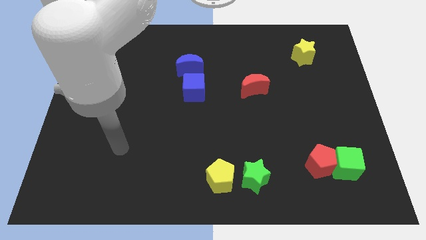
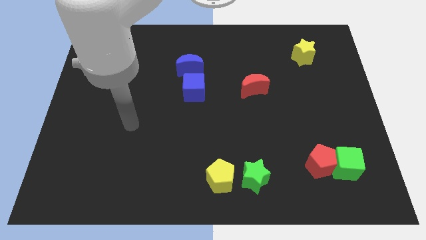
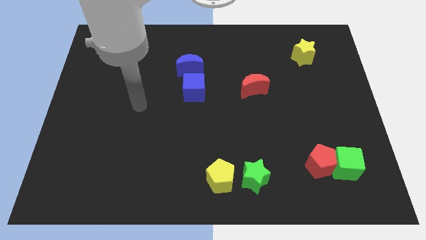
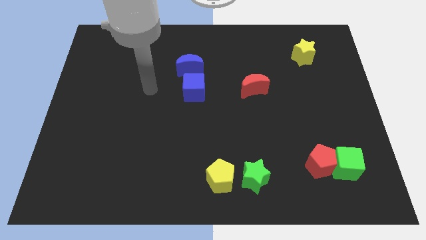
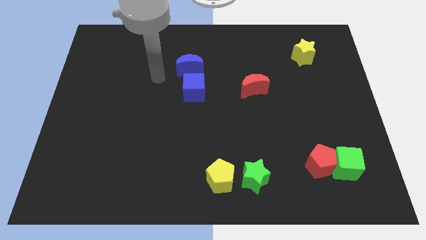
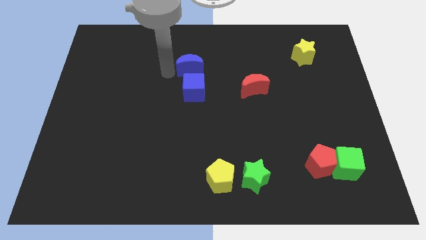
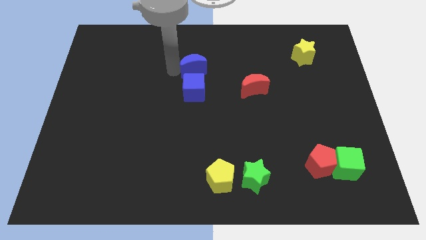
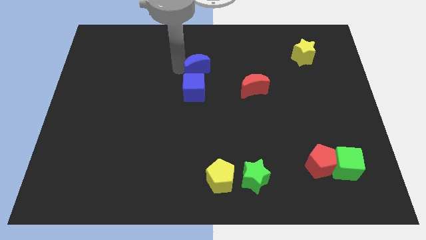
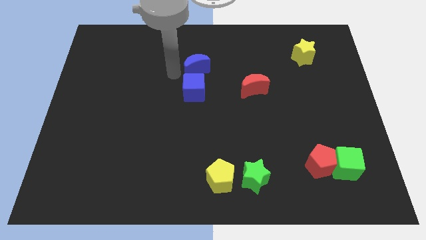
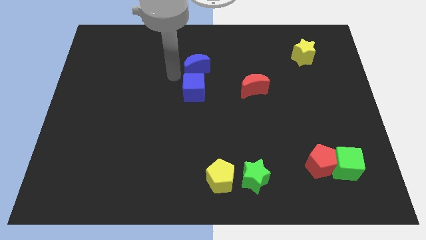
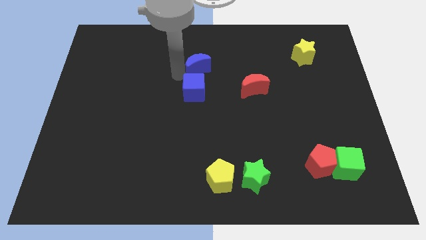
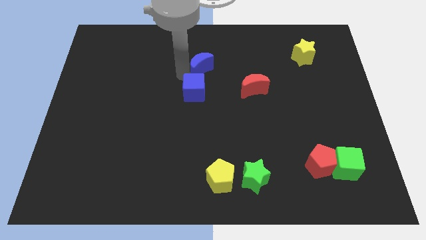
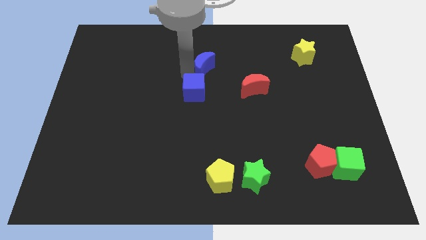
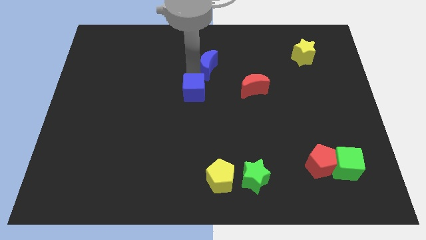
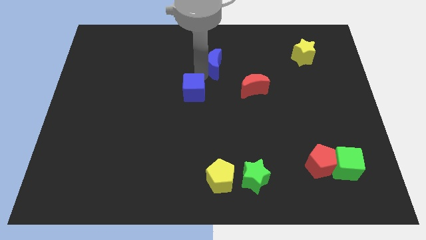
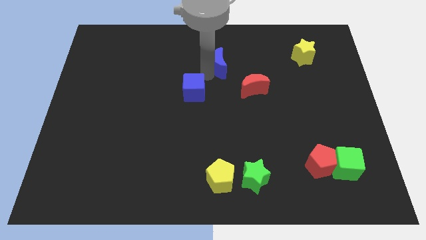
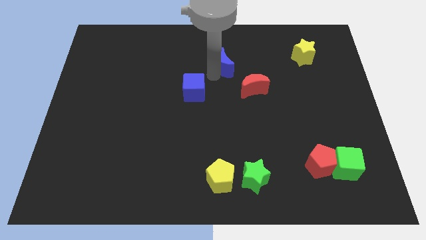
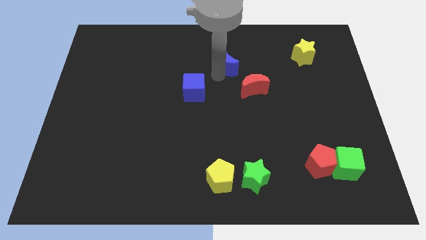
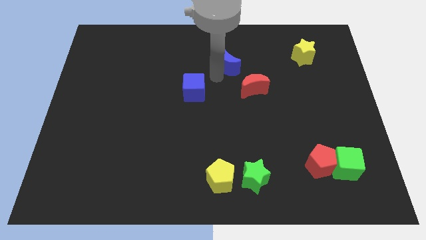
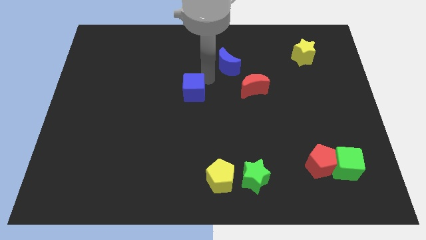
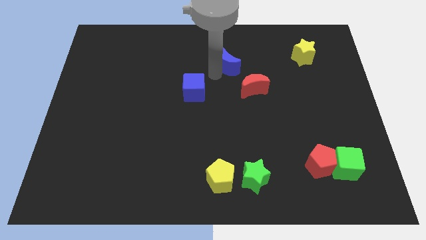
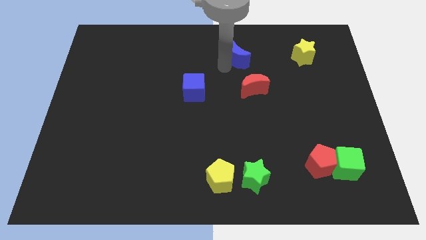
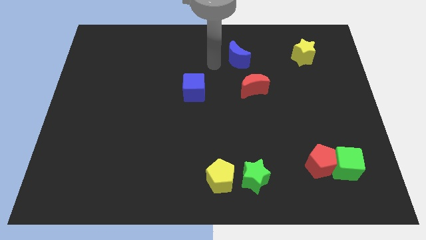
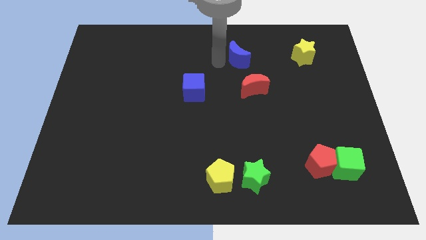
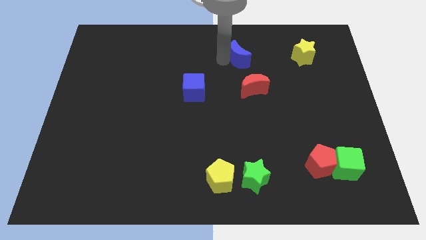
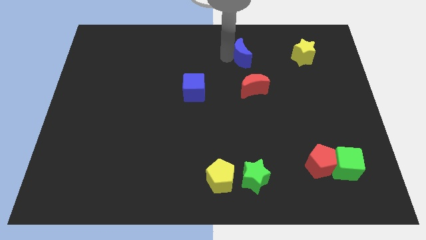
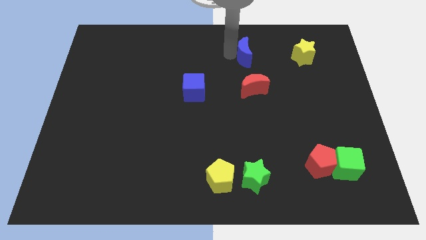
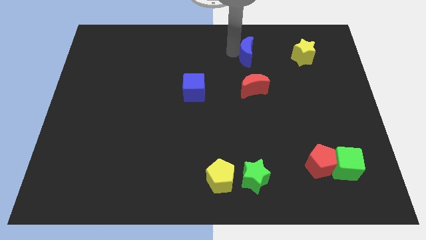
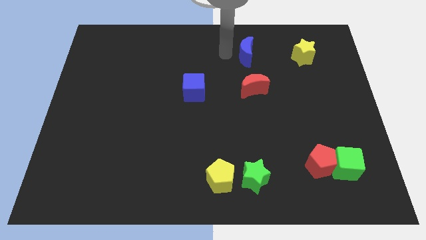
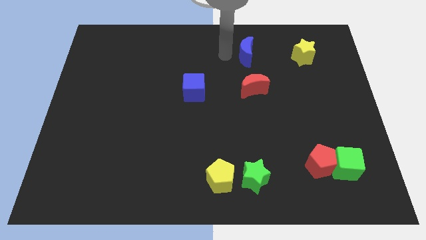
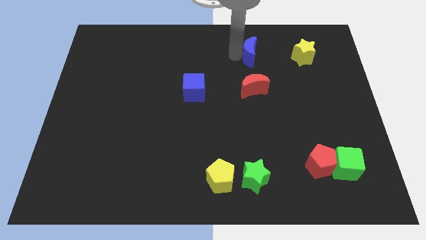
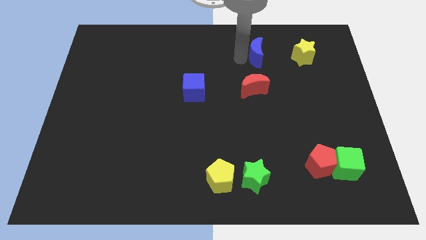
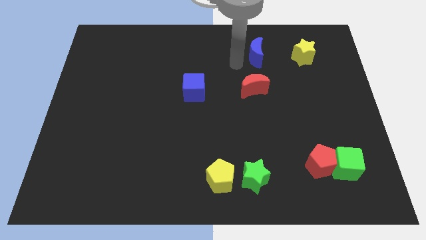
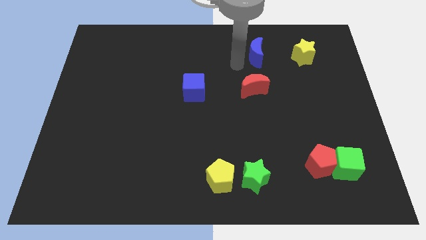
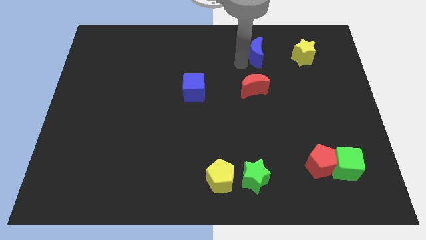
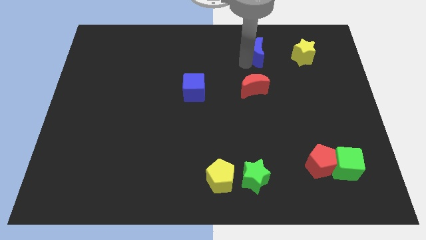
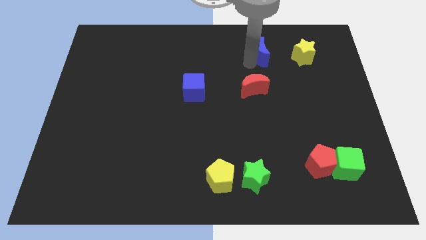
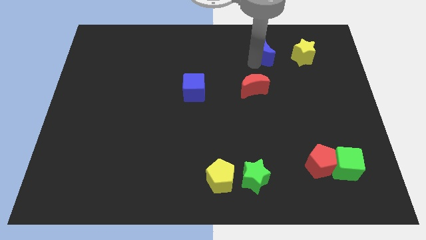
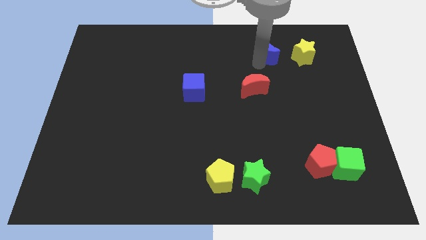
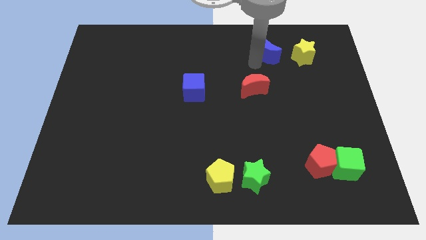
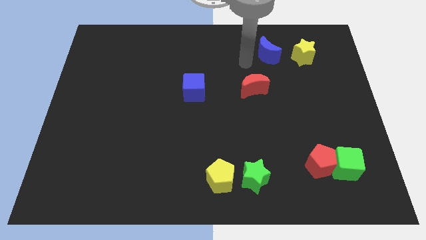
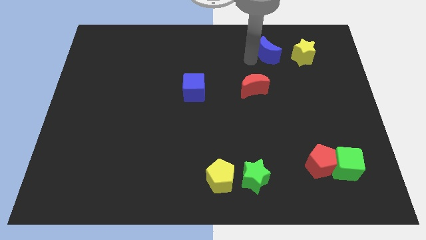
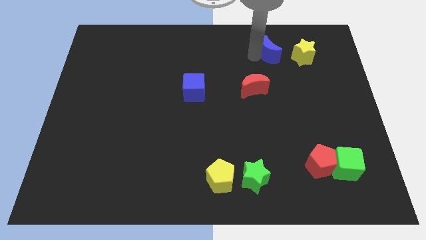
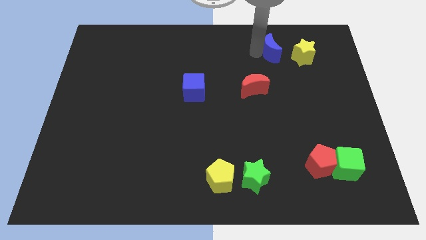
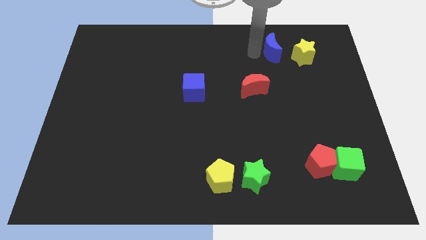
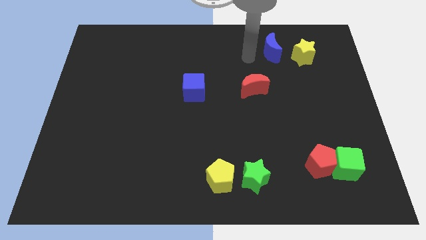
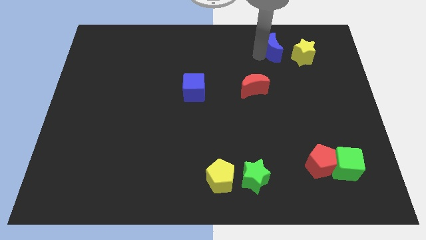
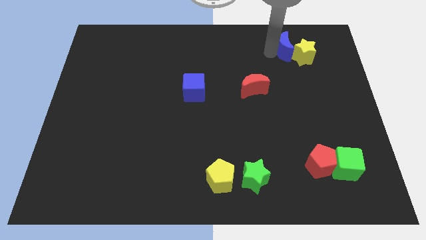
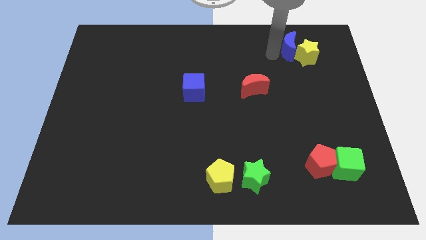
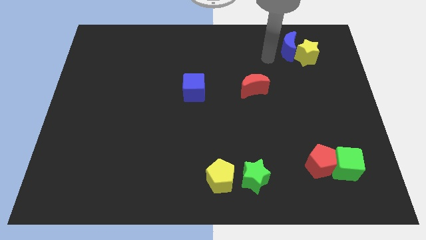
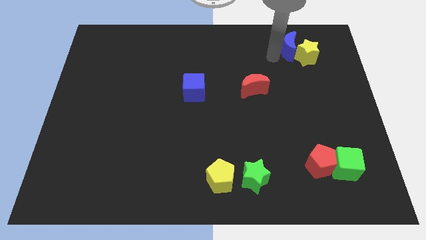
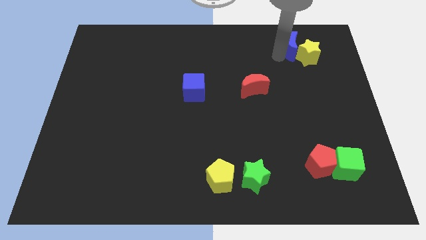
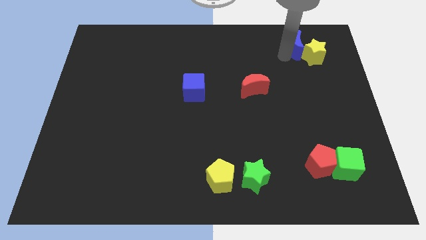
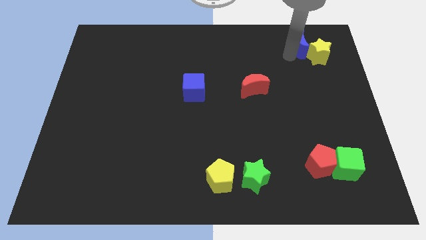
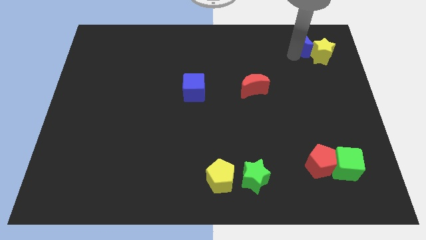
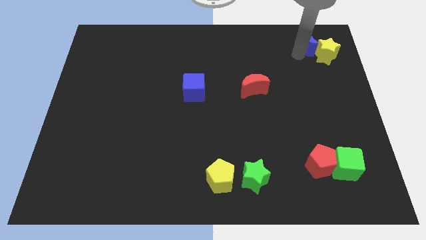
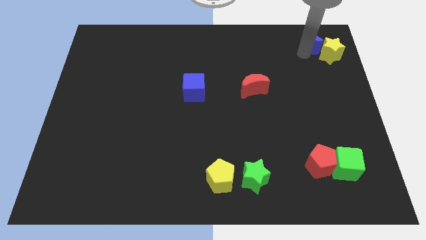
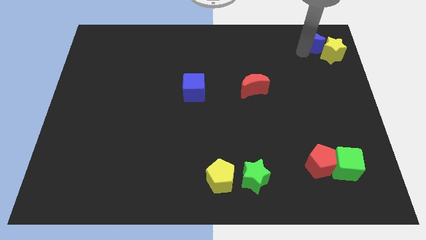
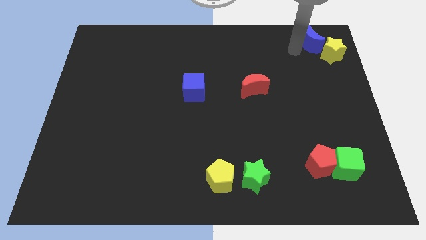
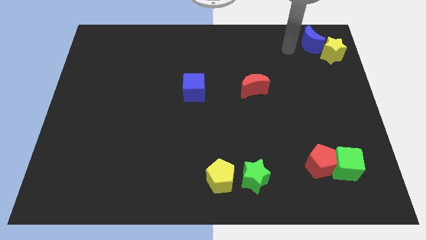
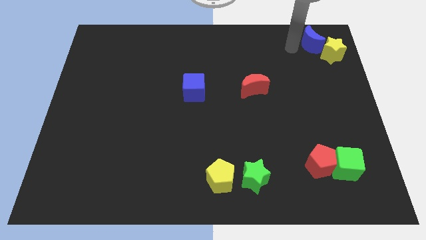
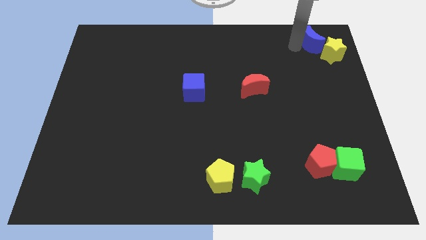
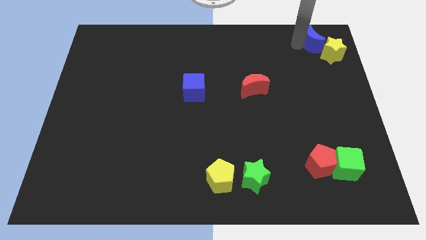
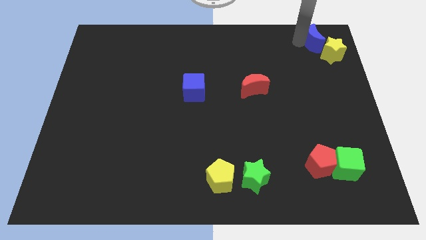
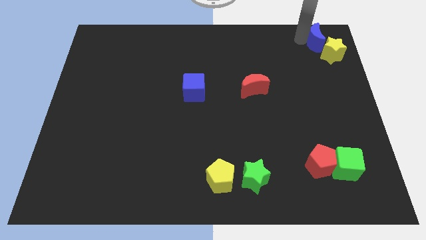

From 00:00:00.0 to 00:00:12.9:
push the blue moon to the top right corner
